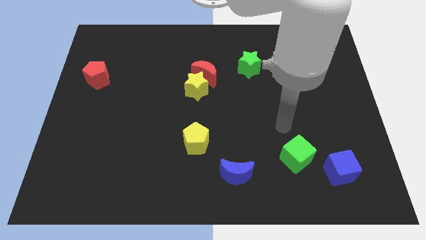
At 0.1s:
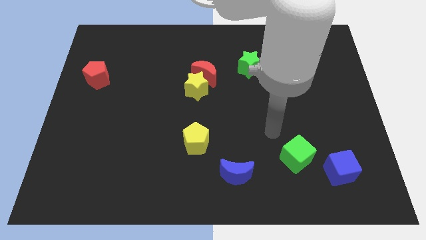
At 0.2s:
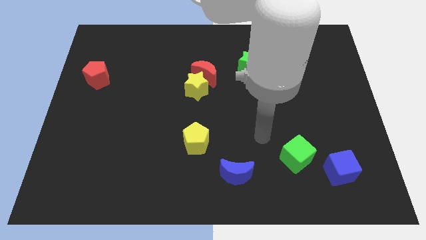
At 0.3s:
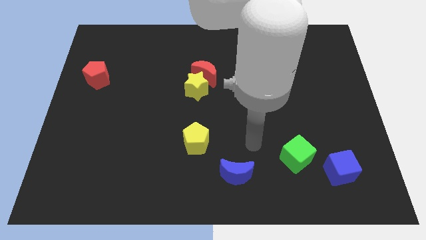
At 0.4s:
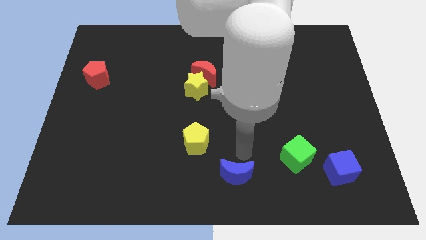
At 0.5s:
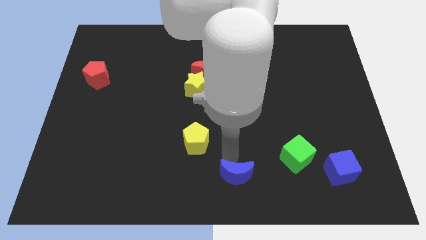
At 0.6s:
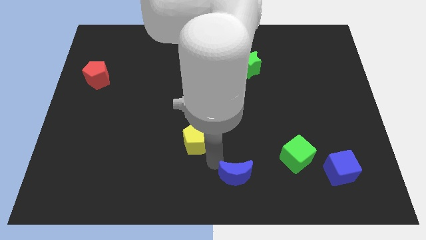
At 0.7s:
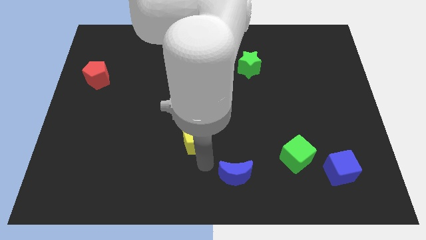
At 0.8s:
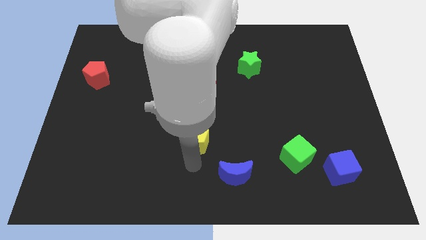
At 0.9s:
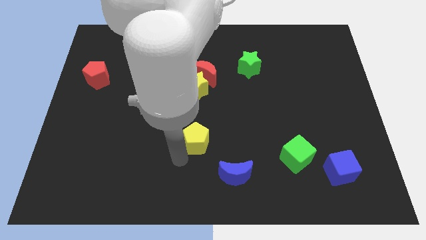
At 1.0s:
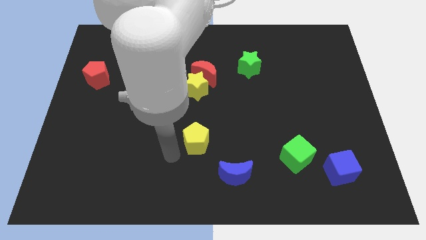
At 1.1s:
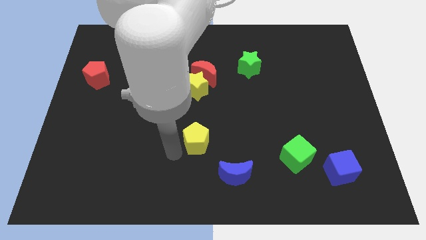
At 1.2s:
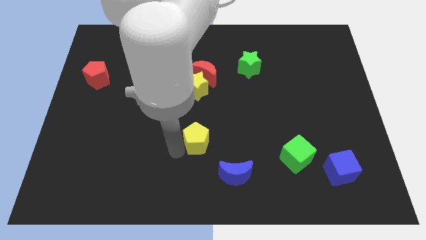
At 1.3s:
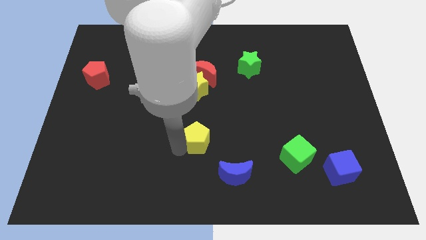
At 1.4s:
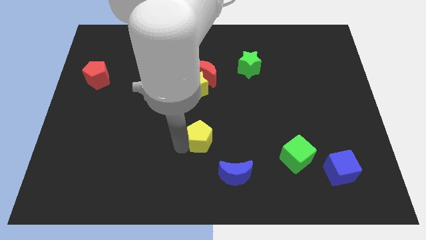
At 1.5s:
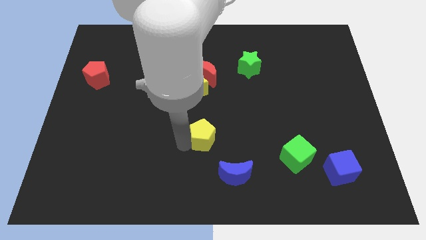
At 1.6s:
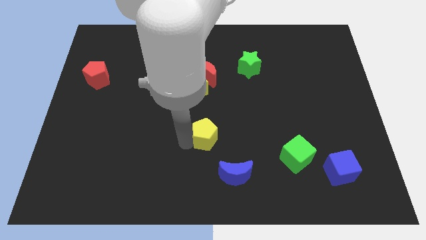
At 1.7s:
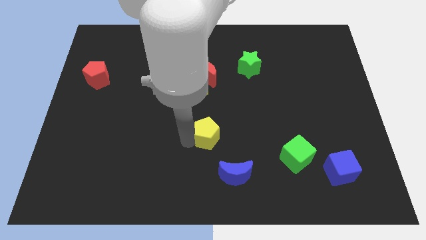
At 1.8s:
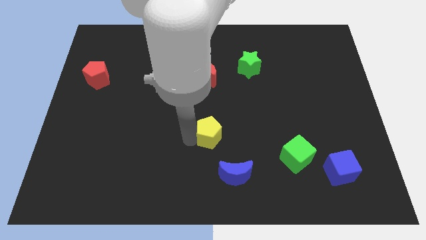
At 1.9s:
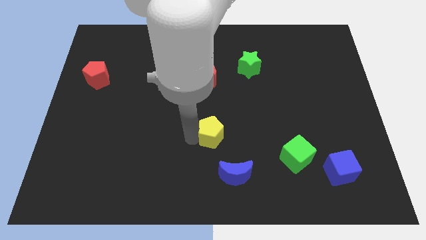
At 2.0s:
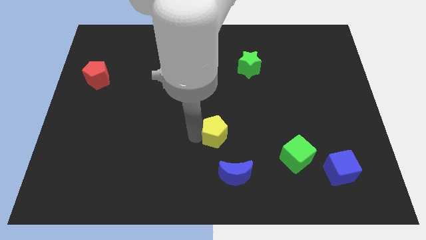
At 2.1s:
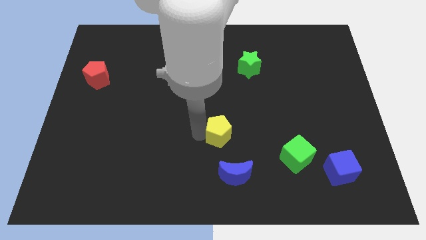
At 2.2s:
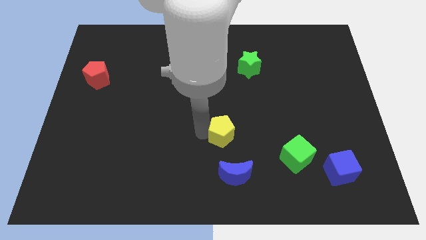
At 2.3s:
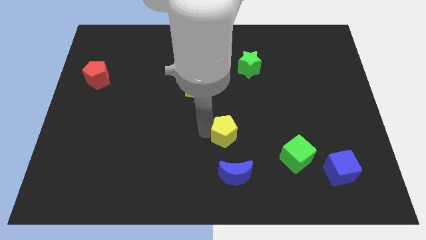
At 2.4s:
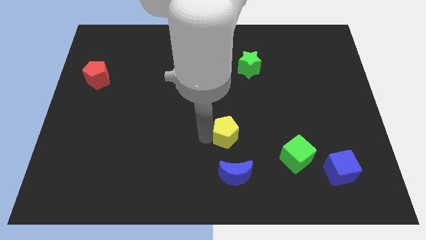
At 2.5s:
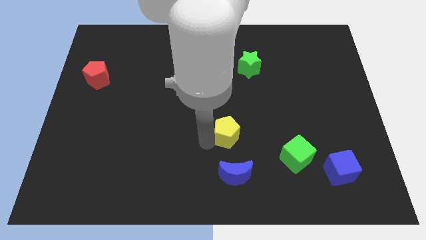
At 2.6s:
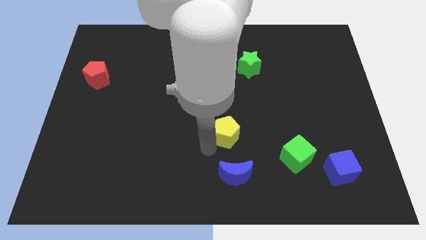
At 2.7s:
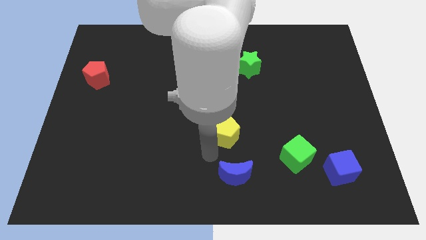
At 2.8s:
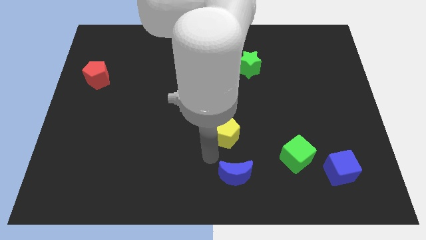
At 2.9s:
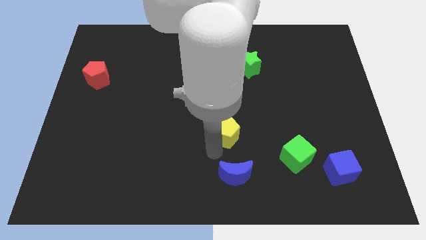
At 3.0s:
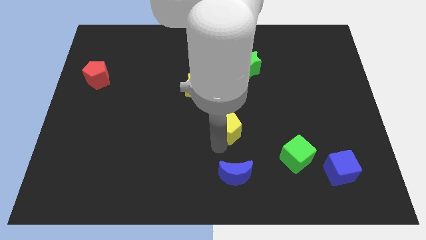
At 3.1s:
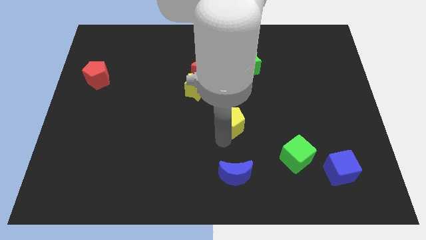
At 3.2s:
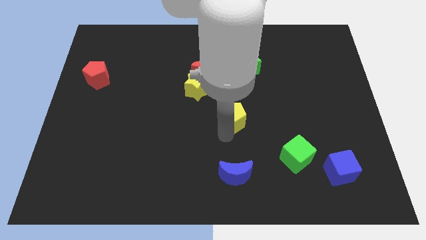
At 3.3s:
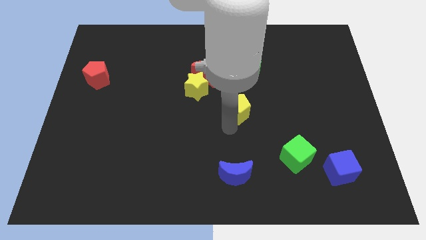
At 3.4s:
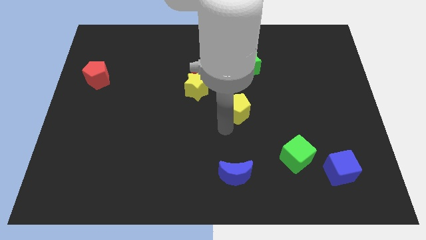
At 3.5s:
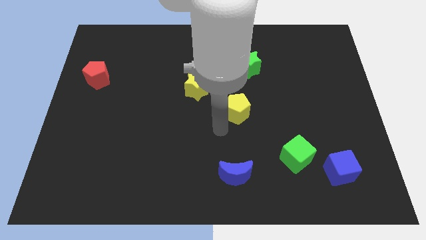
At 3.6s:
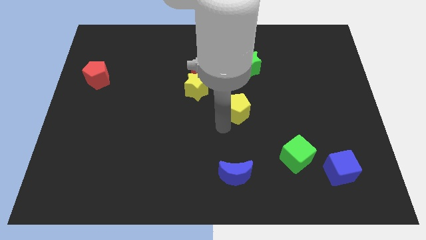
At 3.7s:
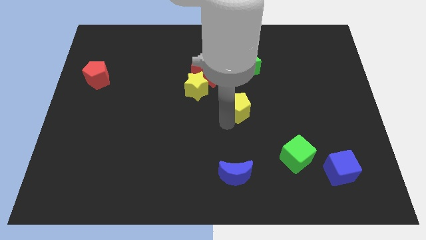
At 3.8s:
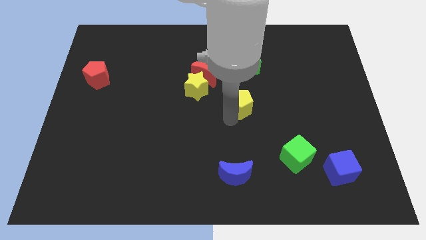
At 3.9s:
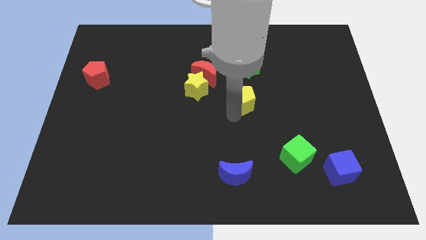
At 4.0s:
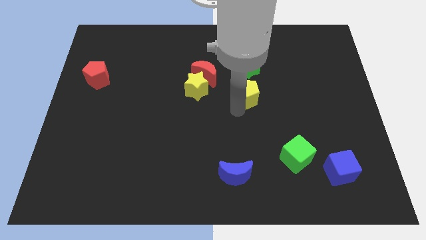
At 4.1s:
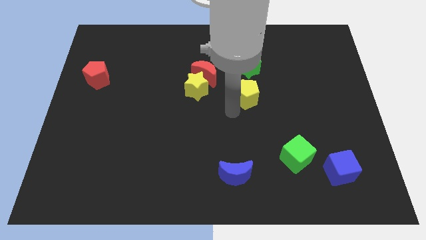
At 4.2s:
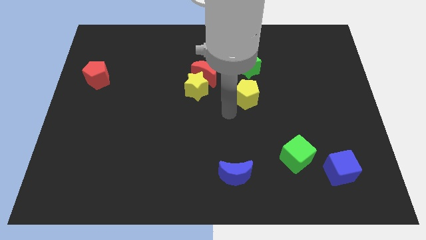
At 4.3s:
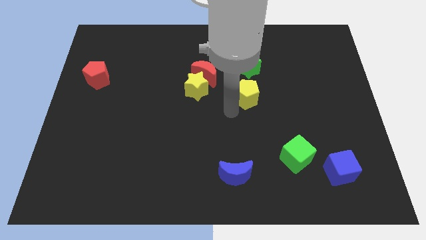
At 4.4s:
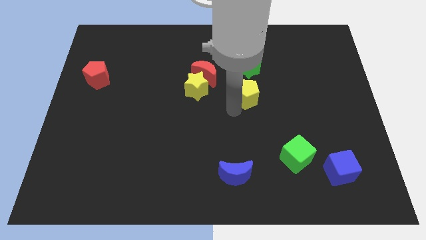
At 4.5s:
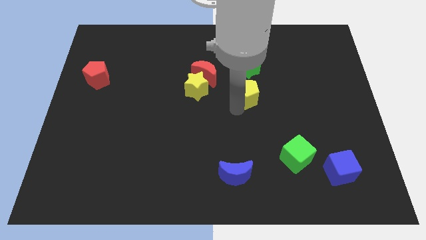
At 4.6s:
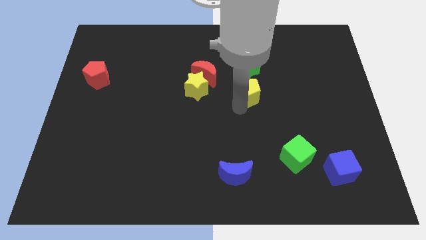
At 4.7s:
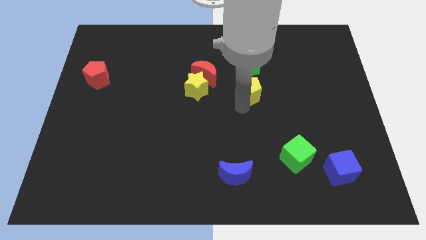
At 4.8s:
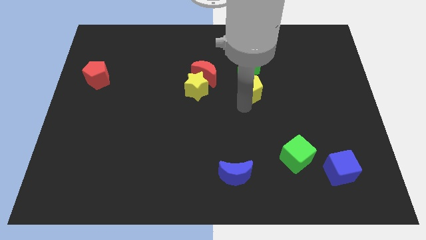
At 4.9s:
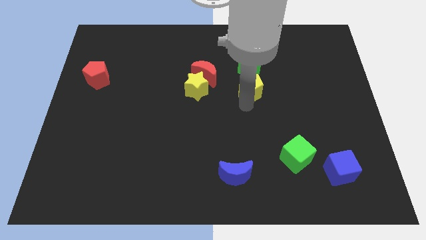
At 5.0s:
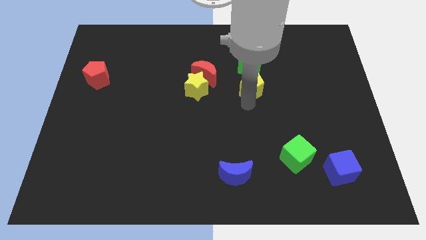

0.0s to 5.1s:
move the yellow pentagon diagonally upwards and to the right

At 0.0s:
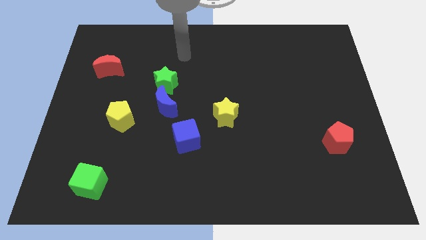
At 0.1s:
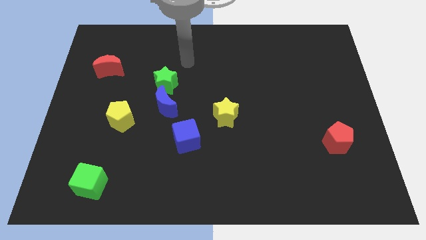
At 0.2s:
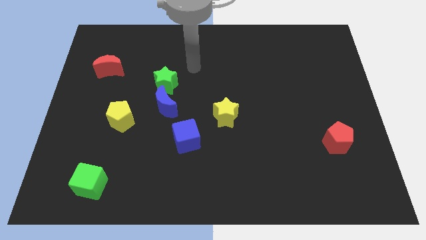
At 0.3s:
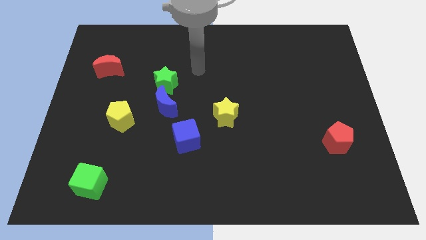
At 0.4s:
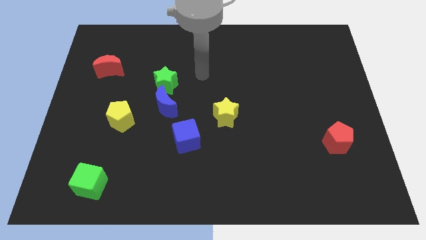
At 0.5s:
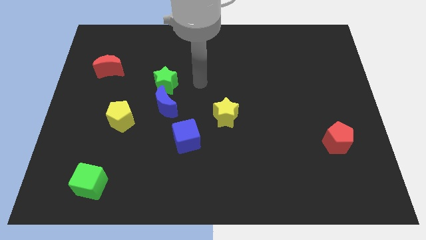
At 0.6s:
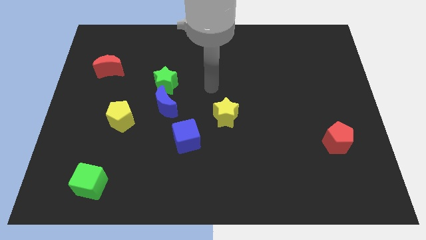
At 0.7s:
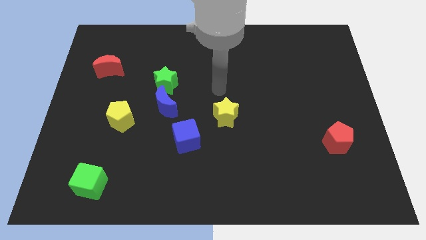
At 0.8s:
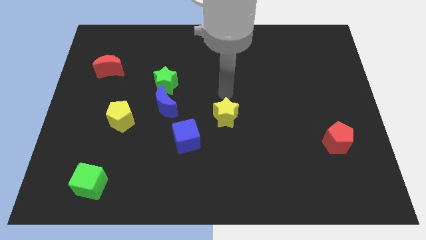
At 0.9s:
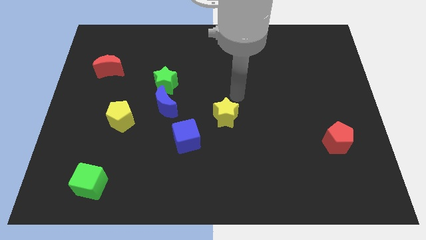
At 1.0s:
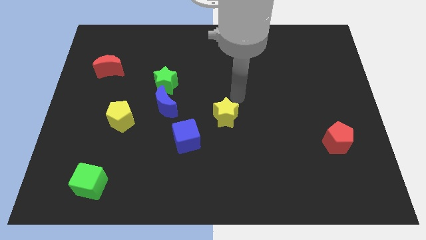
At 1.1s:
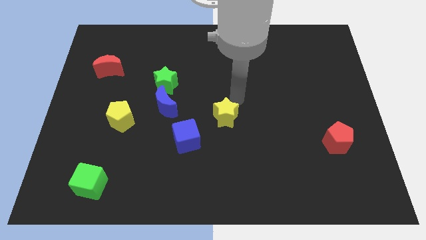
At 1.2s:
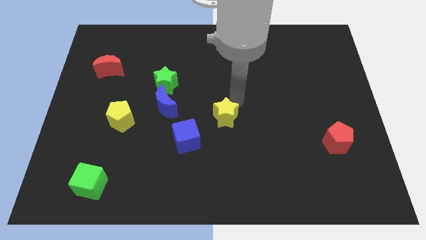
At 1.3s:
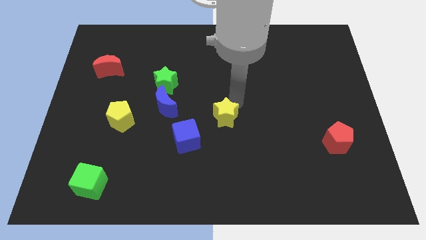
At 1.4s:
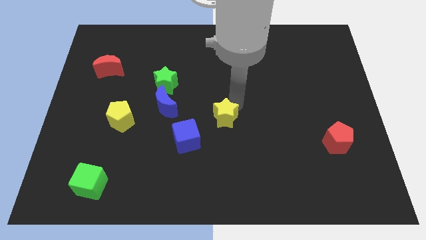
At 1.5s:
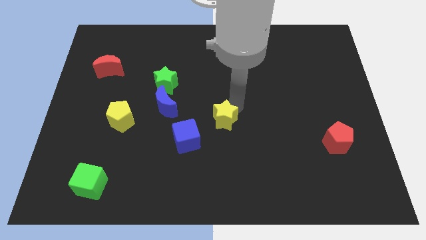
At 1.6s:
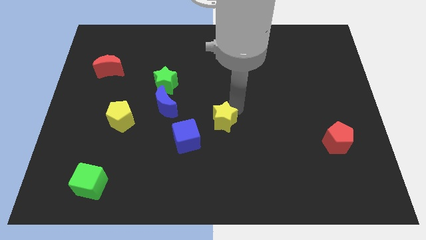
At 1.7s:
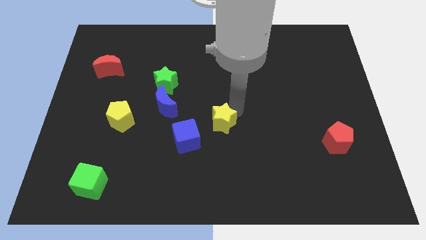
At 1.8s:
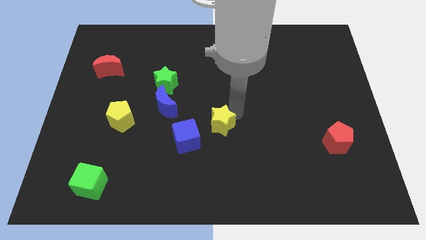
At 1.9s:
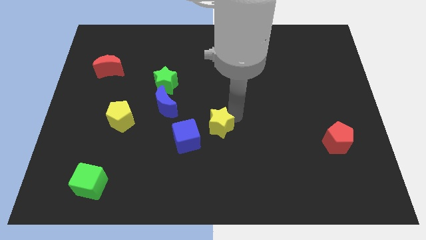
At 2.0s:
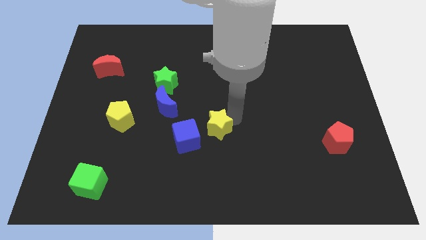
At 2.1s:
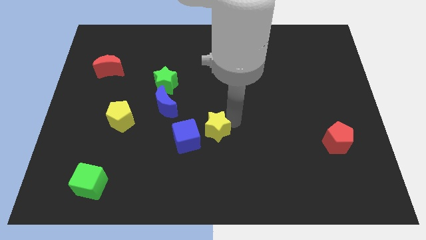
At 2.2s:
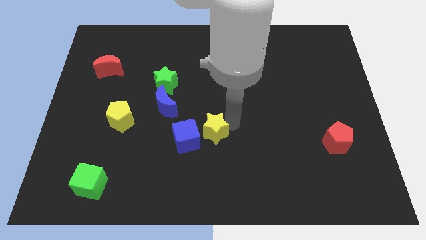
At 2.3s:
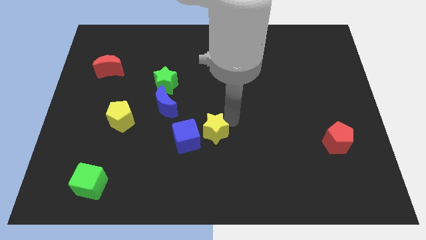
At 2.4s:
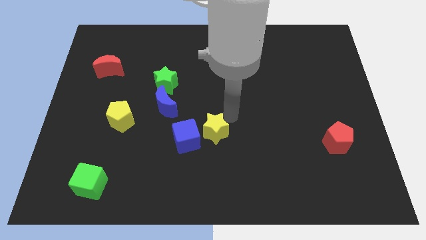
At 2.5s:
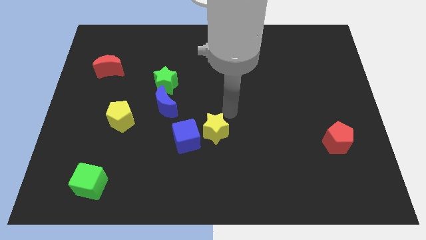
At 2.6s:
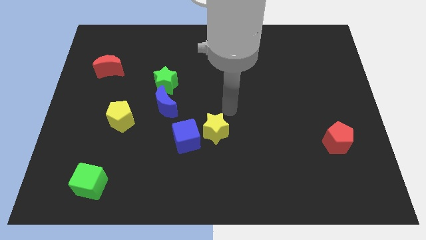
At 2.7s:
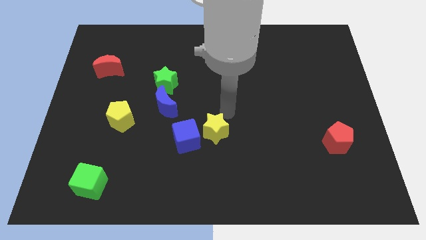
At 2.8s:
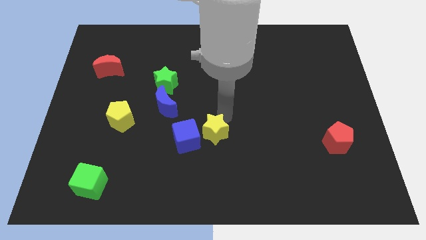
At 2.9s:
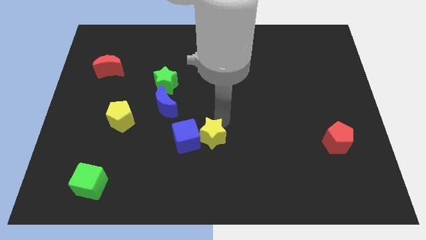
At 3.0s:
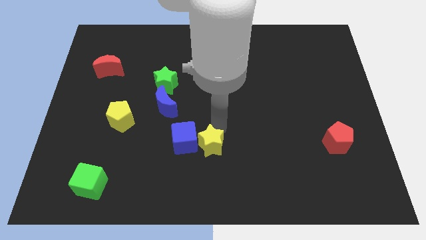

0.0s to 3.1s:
move the yellow star downwards and then to the left somewhat

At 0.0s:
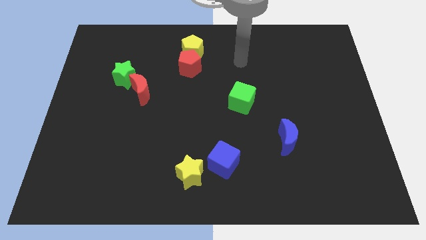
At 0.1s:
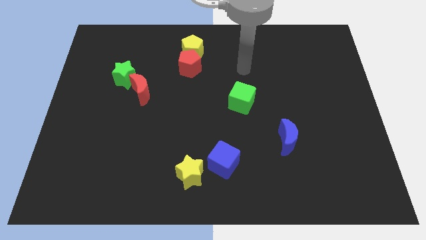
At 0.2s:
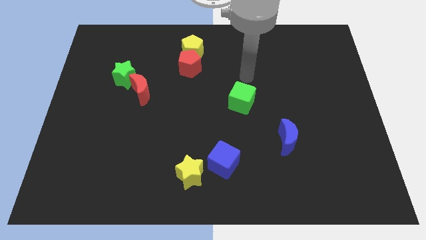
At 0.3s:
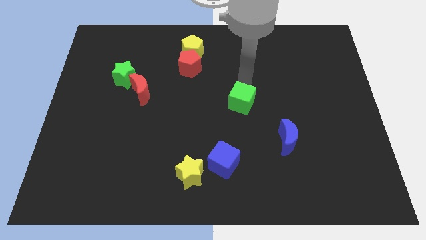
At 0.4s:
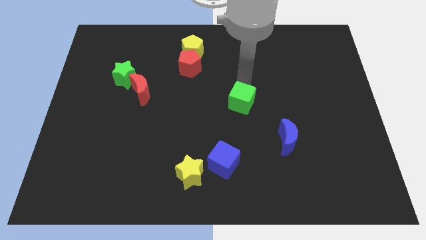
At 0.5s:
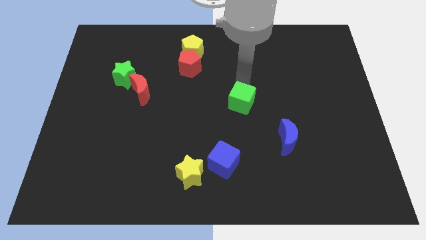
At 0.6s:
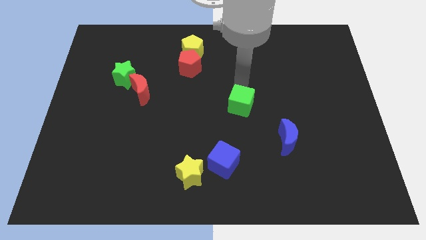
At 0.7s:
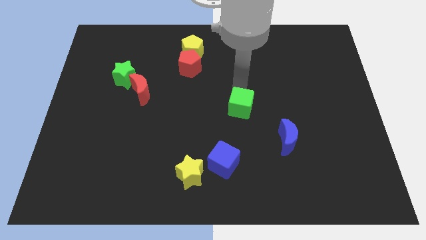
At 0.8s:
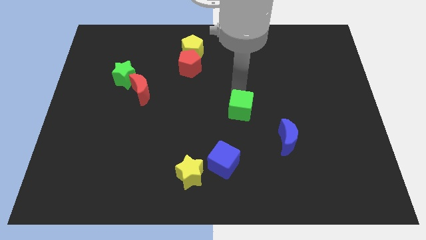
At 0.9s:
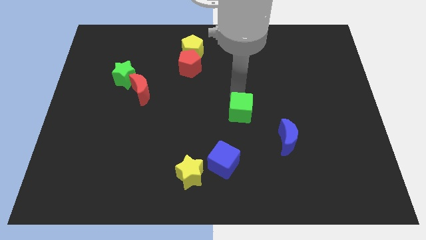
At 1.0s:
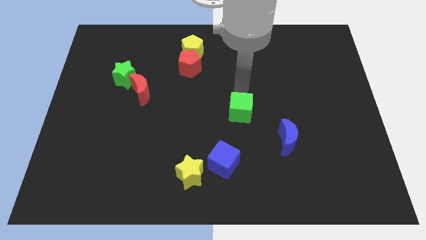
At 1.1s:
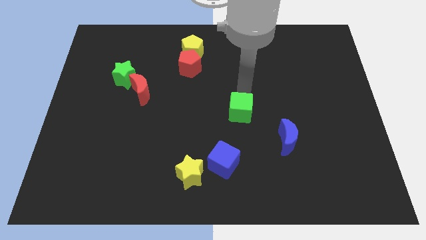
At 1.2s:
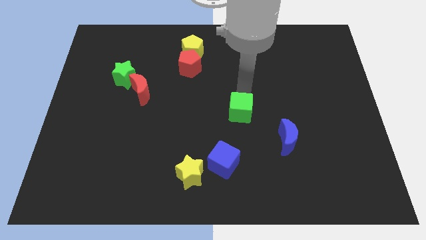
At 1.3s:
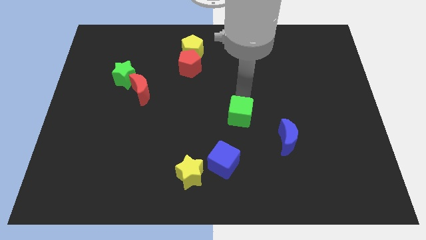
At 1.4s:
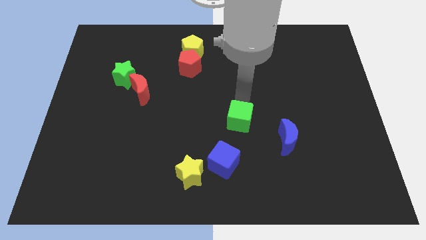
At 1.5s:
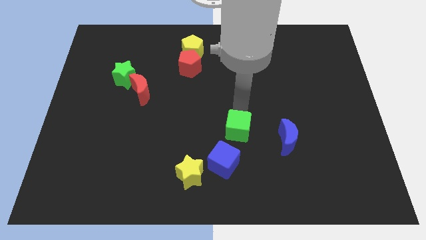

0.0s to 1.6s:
move the green cube downwards a little
